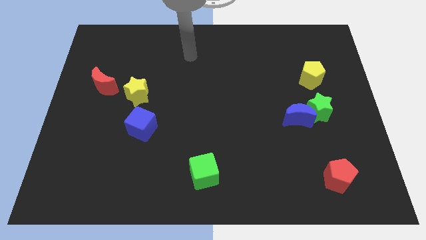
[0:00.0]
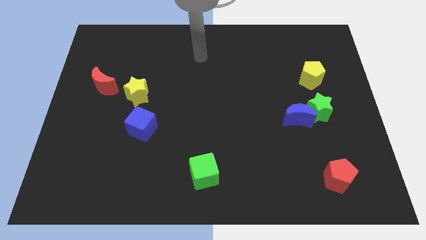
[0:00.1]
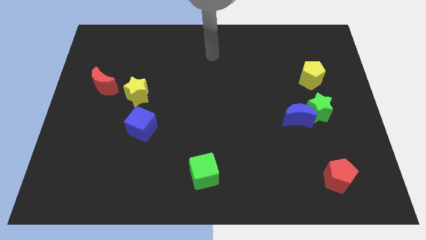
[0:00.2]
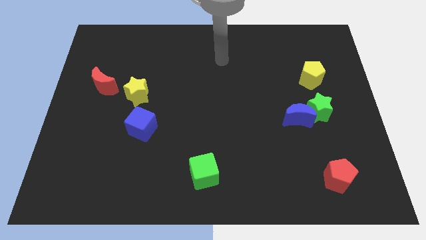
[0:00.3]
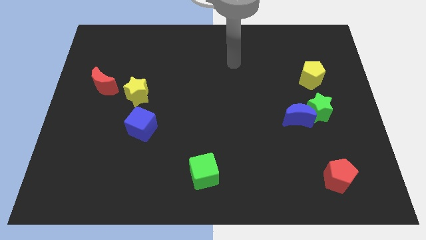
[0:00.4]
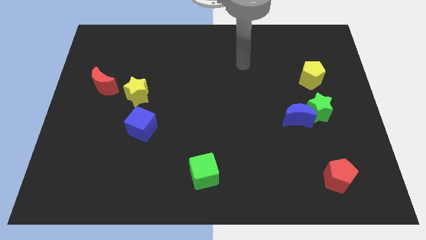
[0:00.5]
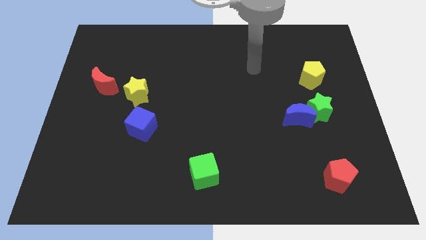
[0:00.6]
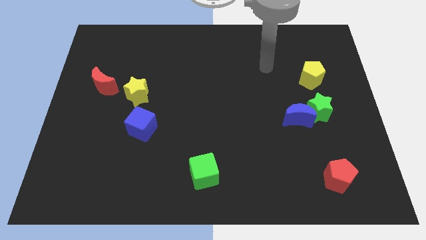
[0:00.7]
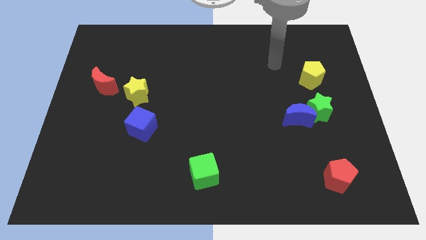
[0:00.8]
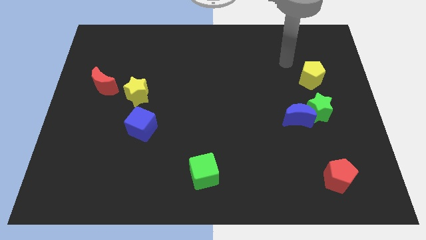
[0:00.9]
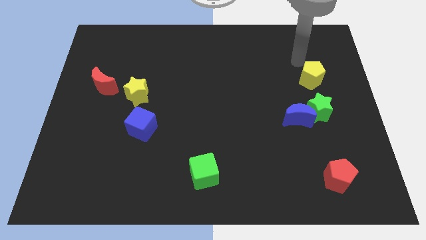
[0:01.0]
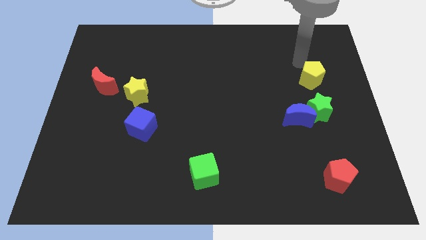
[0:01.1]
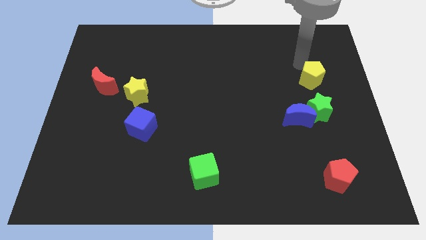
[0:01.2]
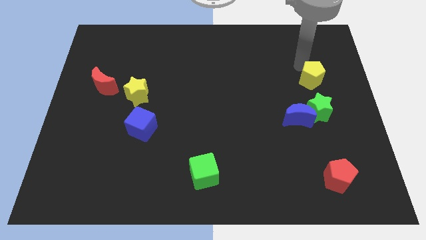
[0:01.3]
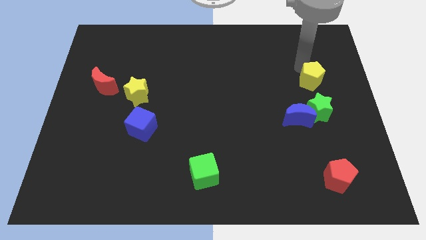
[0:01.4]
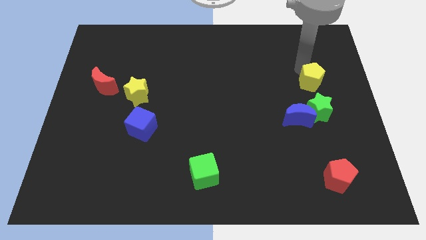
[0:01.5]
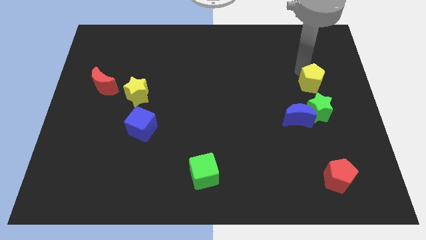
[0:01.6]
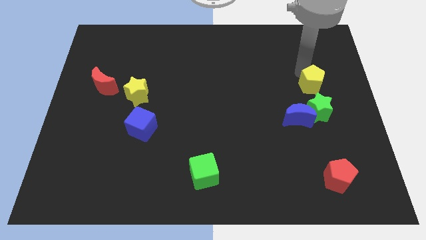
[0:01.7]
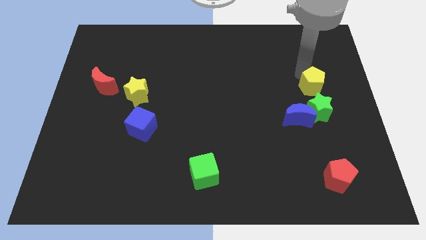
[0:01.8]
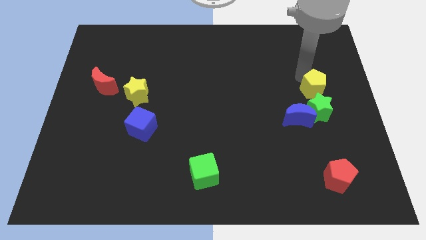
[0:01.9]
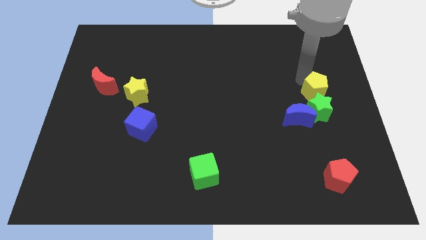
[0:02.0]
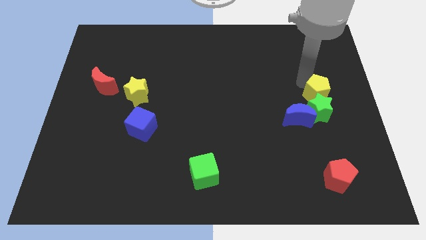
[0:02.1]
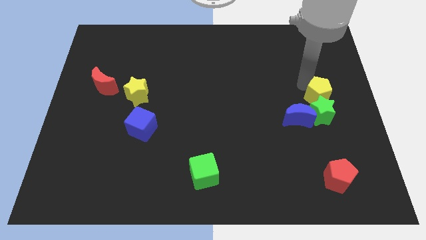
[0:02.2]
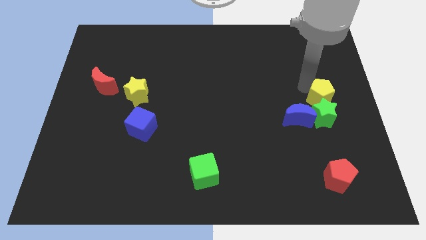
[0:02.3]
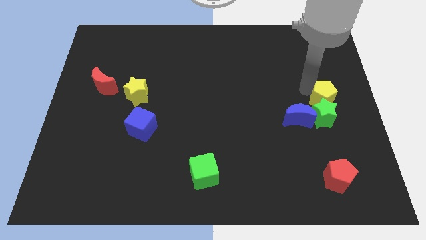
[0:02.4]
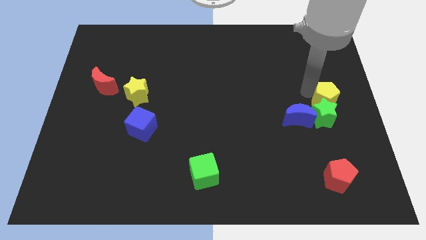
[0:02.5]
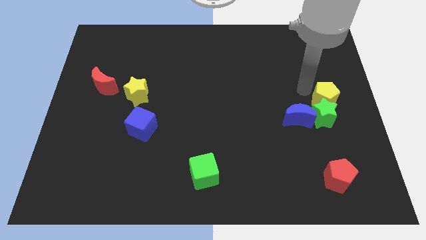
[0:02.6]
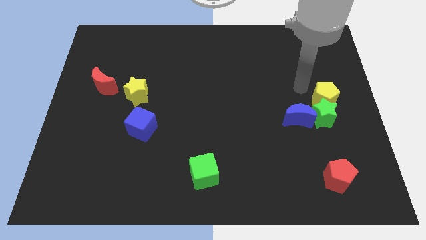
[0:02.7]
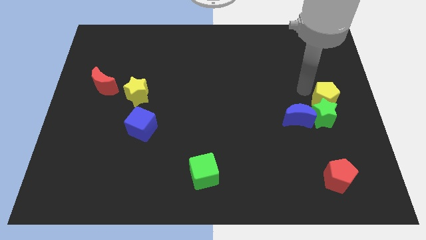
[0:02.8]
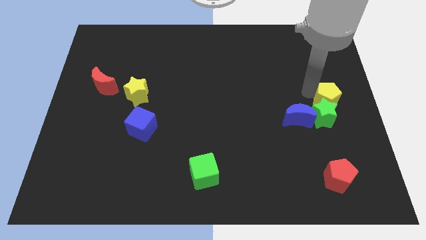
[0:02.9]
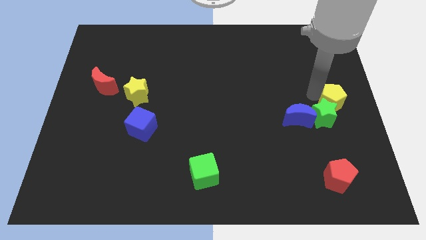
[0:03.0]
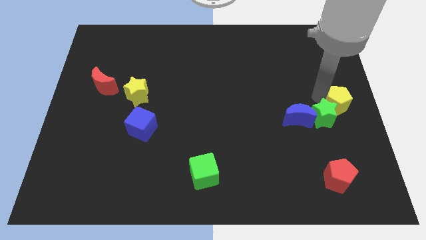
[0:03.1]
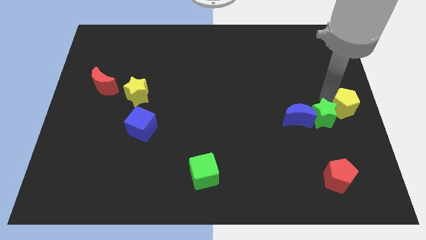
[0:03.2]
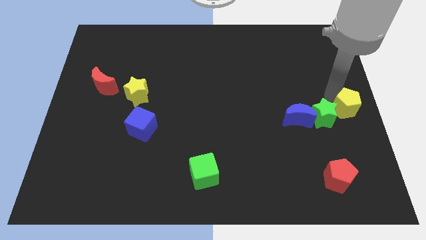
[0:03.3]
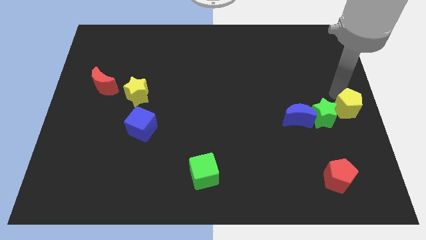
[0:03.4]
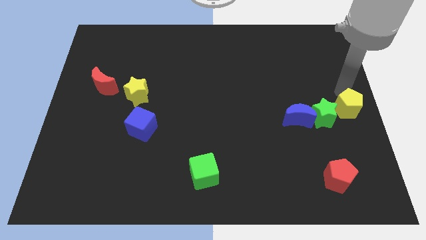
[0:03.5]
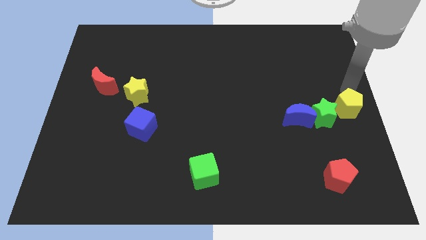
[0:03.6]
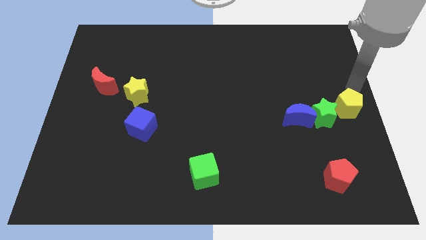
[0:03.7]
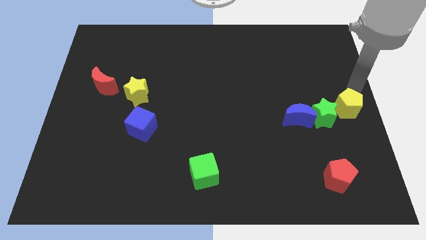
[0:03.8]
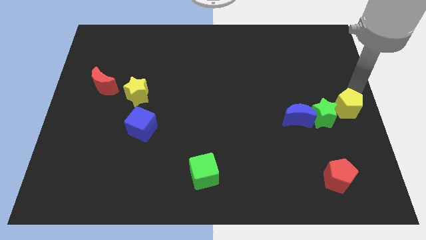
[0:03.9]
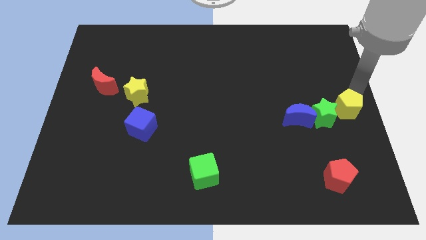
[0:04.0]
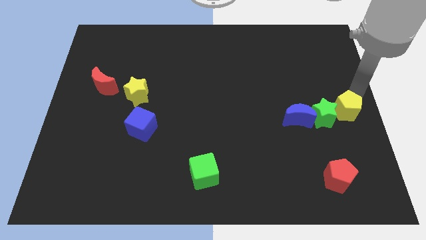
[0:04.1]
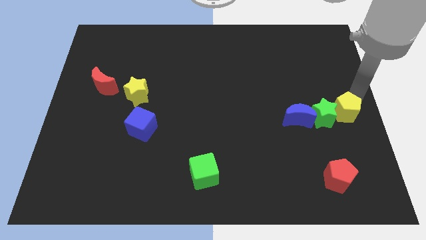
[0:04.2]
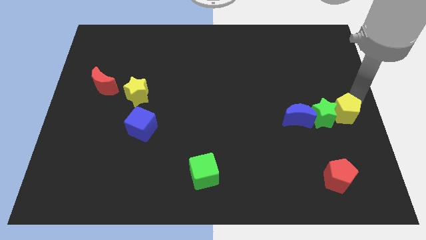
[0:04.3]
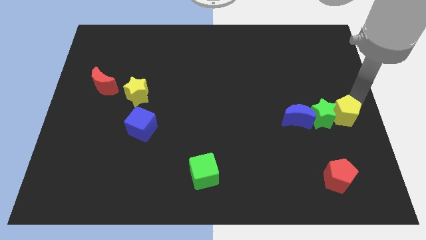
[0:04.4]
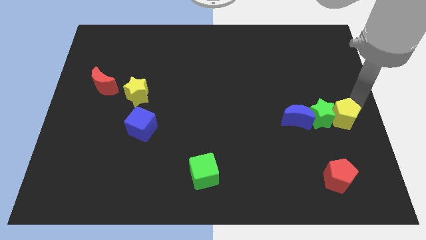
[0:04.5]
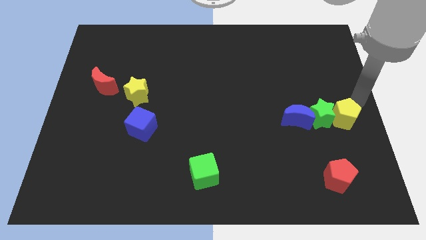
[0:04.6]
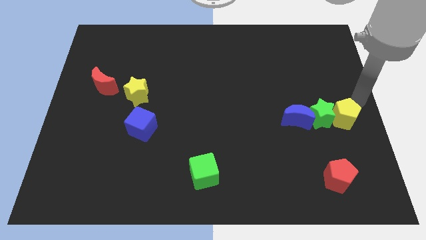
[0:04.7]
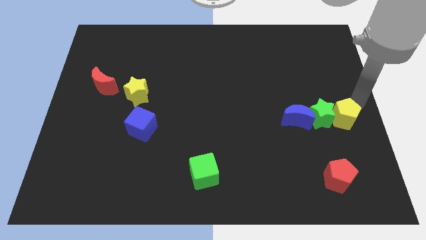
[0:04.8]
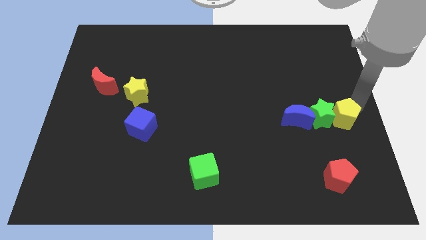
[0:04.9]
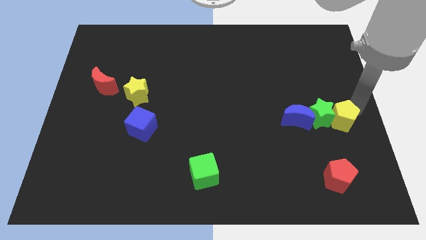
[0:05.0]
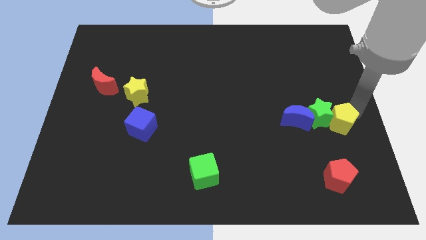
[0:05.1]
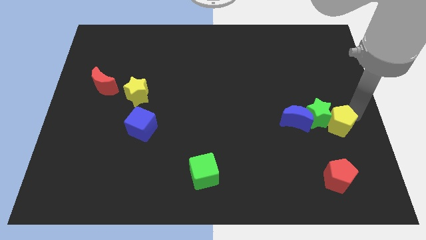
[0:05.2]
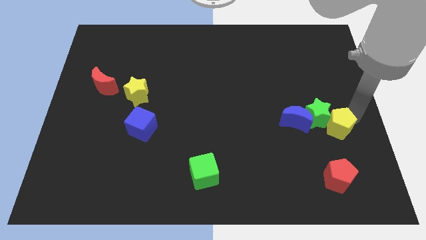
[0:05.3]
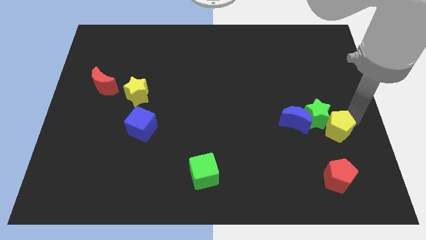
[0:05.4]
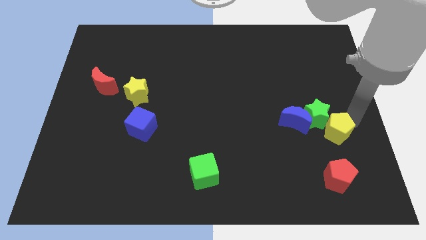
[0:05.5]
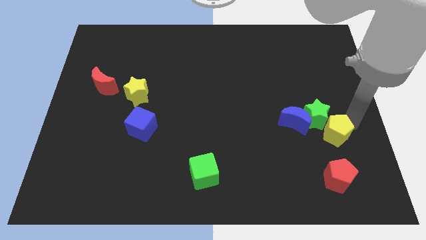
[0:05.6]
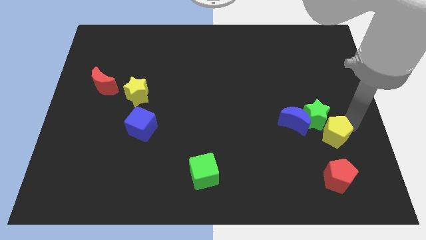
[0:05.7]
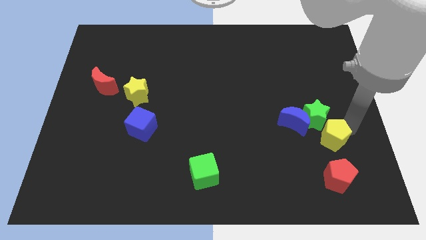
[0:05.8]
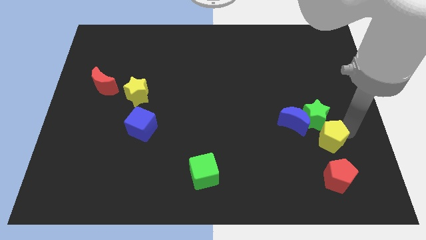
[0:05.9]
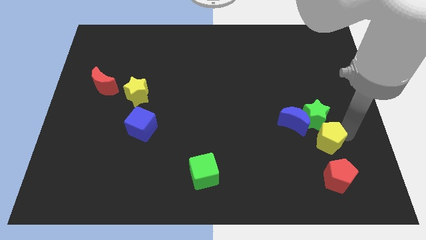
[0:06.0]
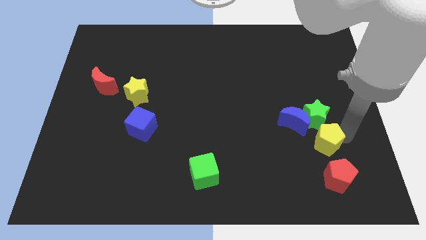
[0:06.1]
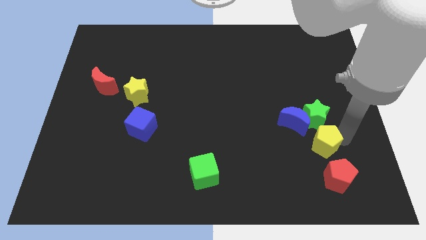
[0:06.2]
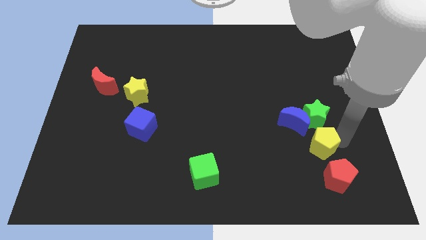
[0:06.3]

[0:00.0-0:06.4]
slide the yellow pentagon to the top left side of the red pentagon
